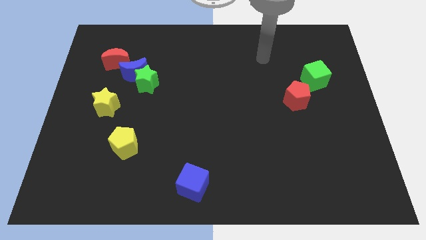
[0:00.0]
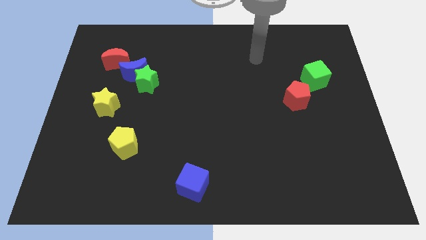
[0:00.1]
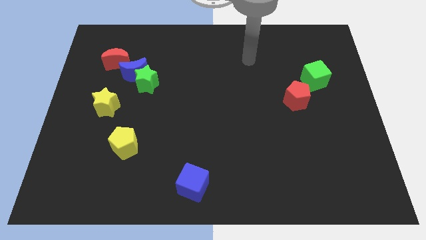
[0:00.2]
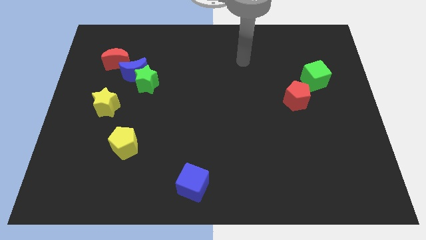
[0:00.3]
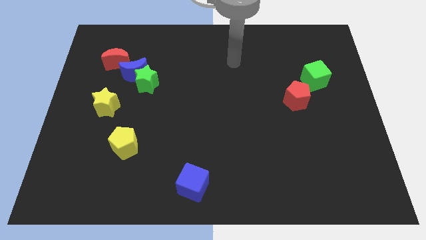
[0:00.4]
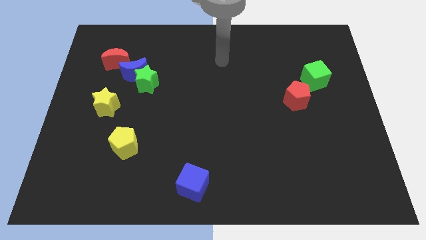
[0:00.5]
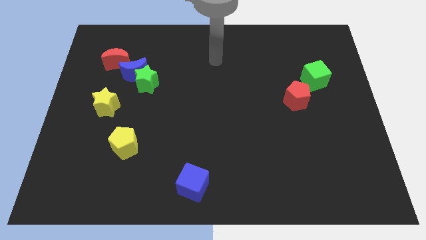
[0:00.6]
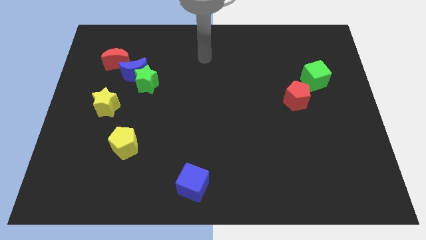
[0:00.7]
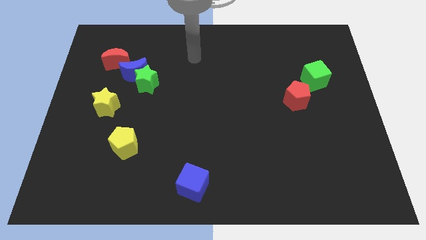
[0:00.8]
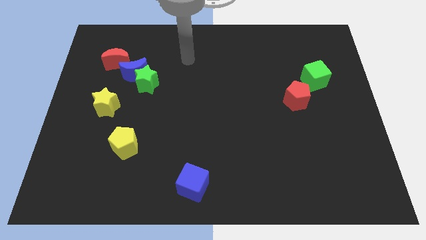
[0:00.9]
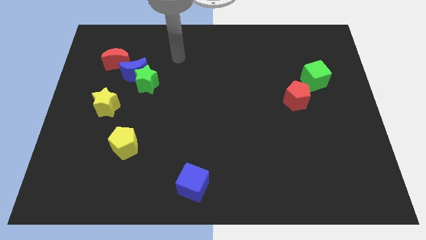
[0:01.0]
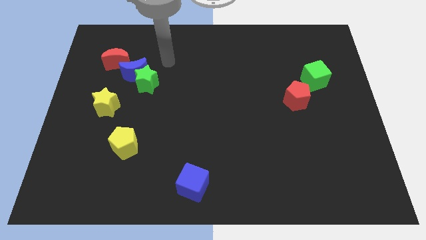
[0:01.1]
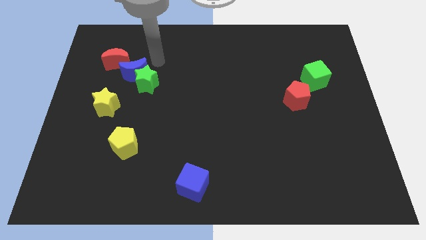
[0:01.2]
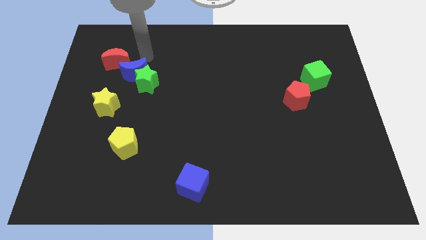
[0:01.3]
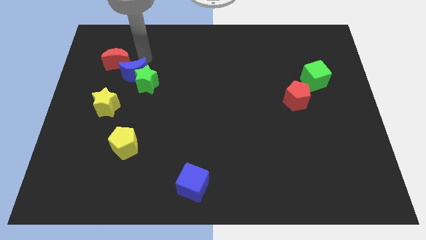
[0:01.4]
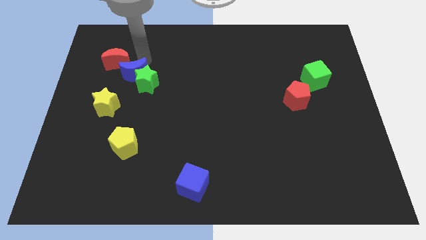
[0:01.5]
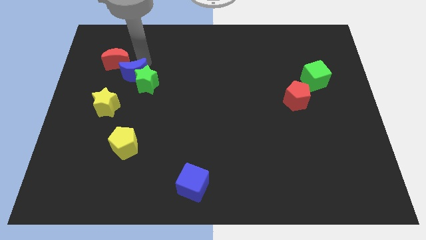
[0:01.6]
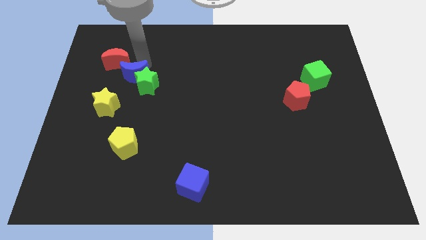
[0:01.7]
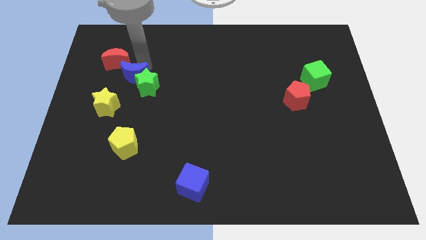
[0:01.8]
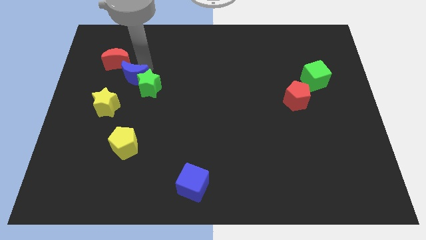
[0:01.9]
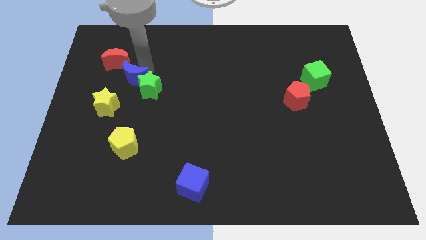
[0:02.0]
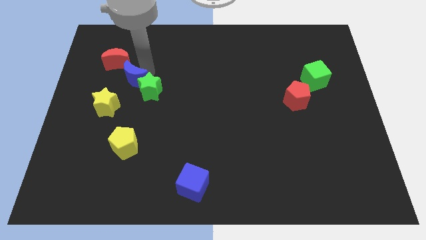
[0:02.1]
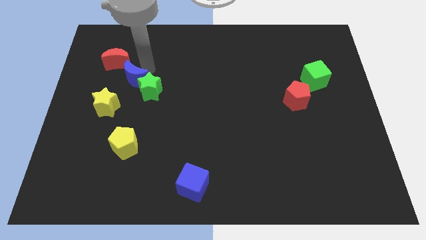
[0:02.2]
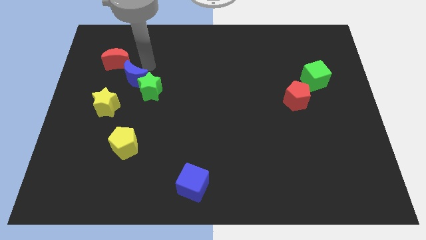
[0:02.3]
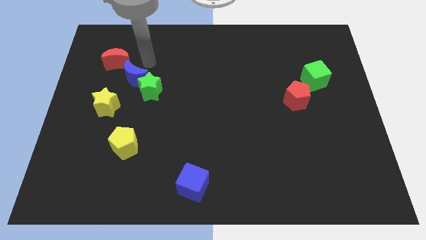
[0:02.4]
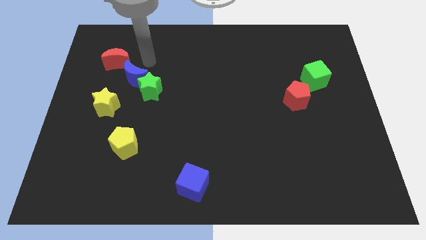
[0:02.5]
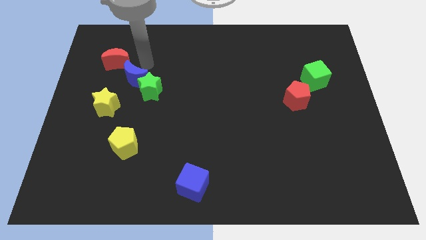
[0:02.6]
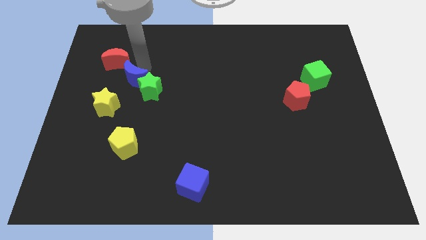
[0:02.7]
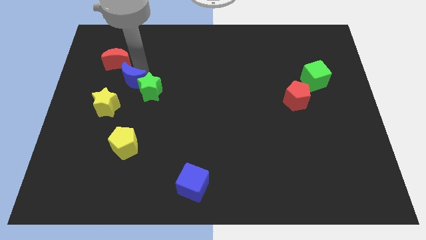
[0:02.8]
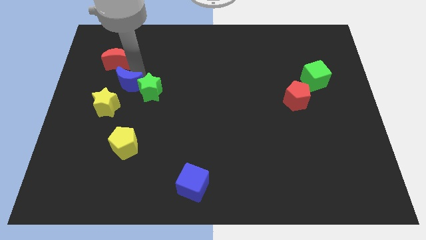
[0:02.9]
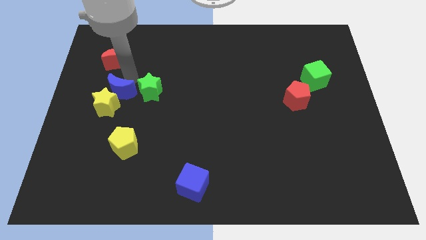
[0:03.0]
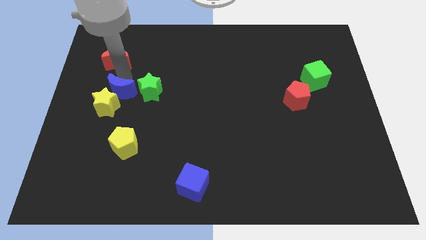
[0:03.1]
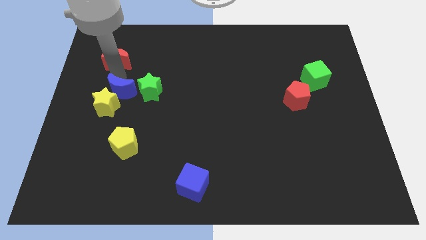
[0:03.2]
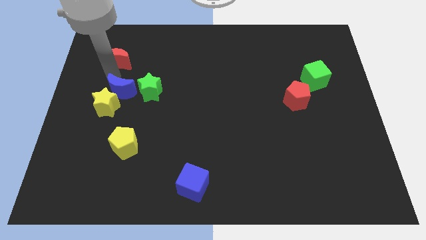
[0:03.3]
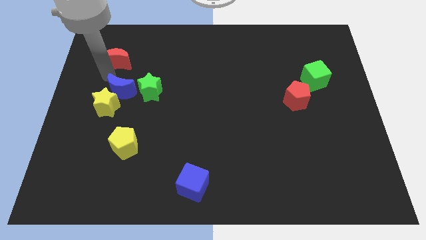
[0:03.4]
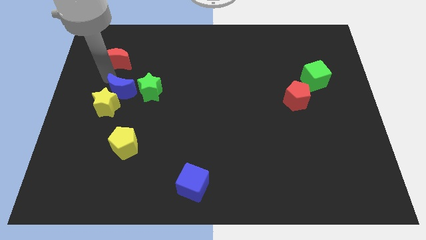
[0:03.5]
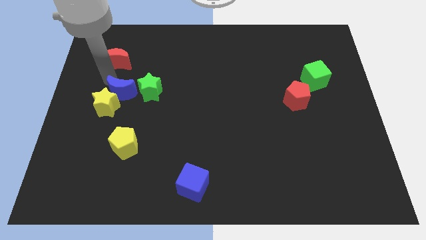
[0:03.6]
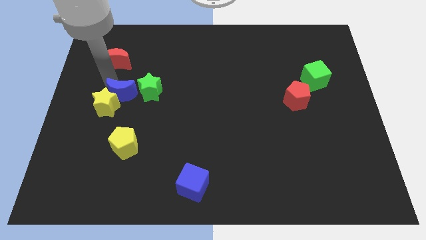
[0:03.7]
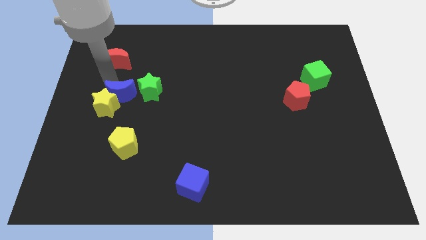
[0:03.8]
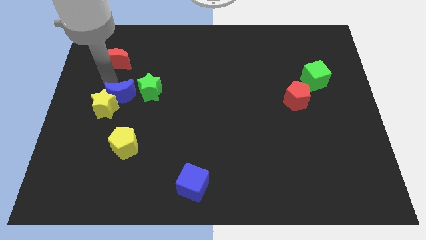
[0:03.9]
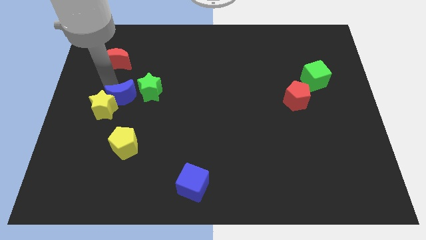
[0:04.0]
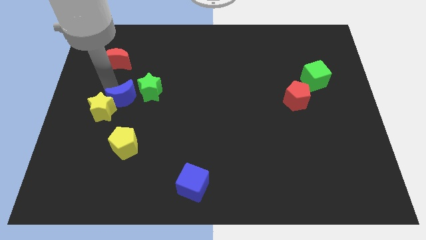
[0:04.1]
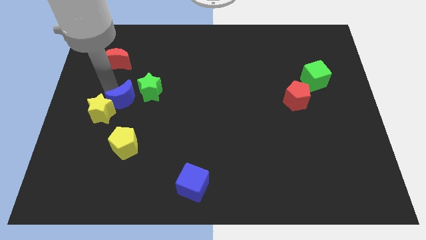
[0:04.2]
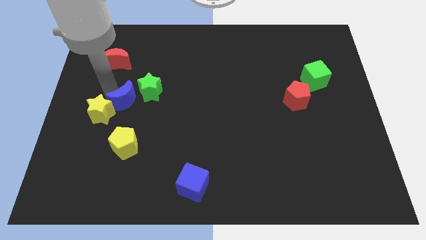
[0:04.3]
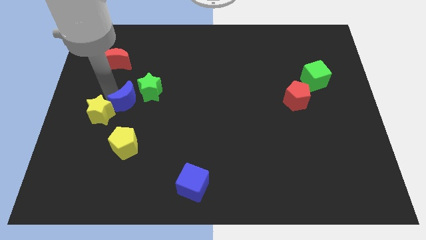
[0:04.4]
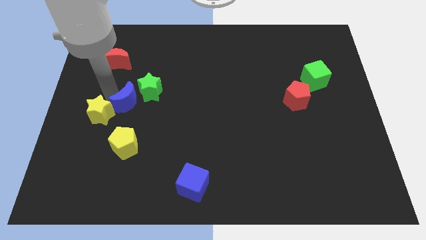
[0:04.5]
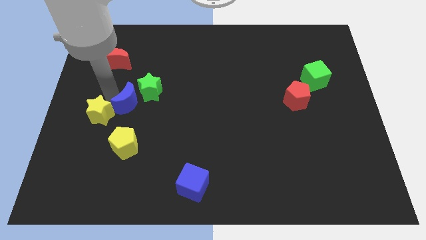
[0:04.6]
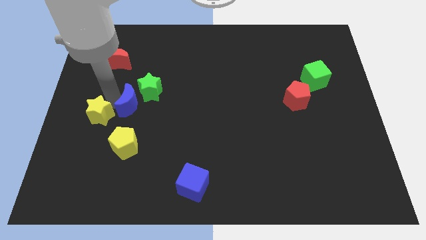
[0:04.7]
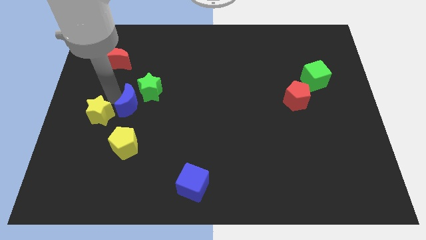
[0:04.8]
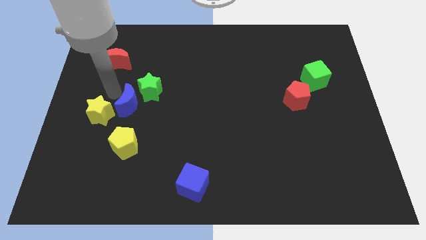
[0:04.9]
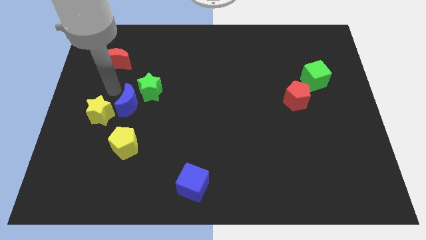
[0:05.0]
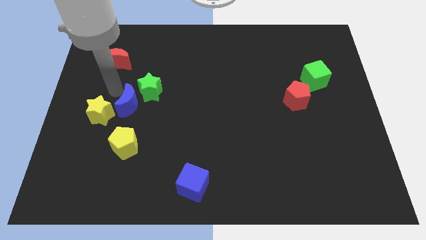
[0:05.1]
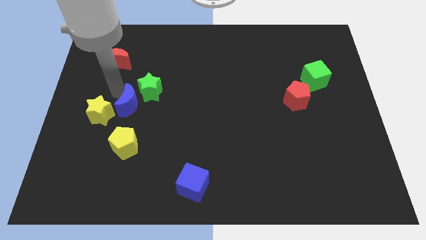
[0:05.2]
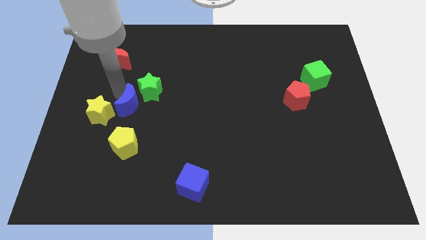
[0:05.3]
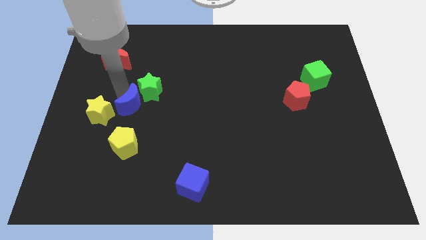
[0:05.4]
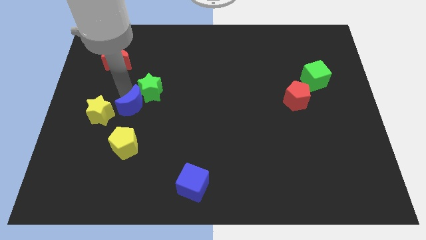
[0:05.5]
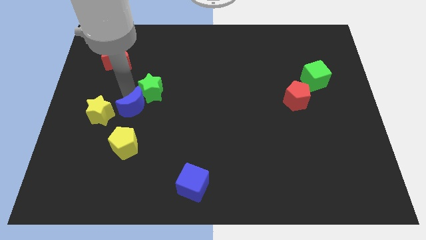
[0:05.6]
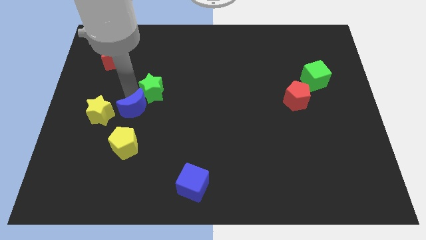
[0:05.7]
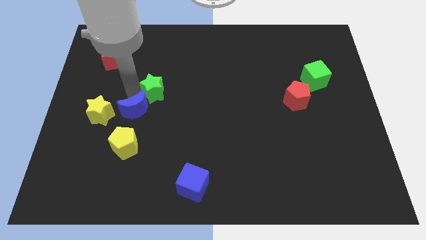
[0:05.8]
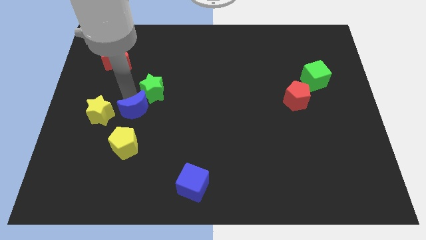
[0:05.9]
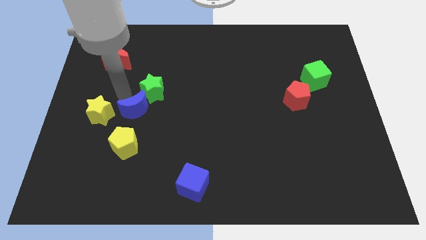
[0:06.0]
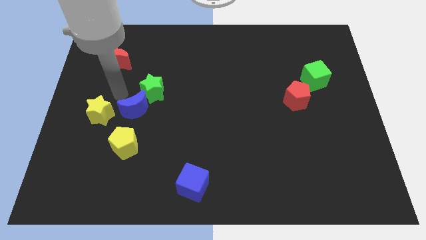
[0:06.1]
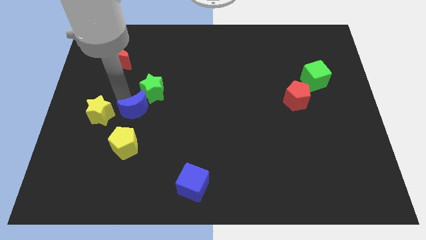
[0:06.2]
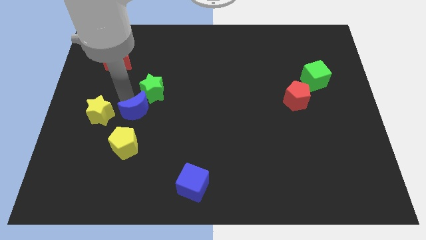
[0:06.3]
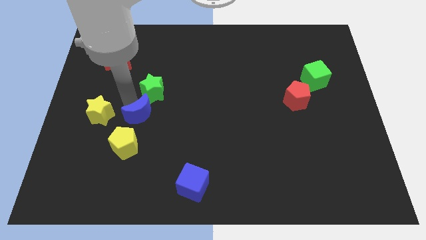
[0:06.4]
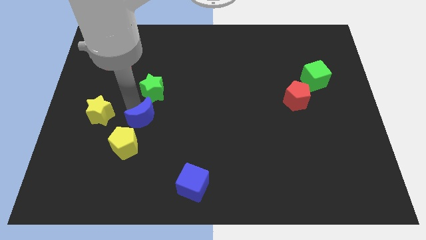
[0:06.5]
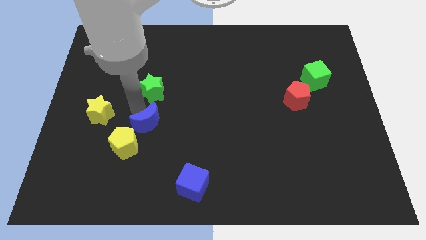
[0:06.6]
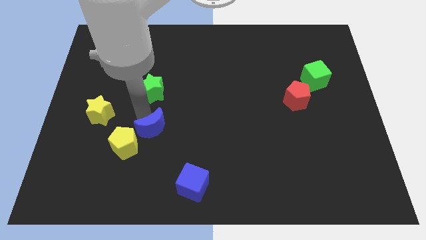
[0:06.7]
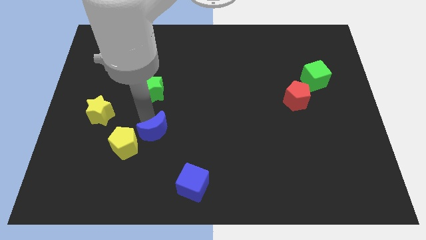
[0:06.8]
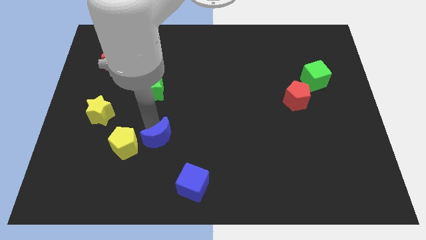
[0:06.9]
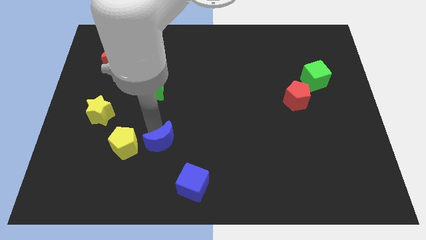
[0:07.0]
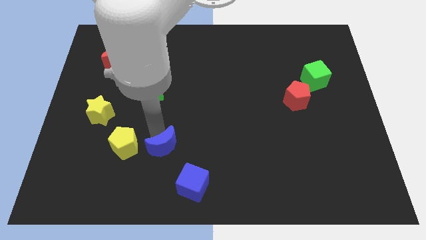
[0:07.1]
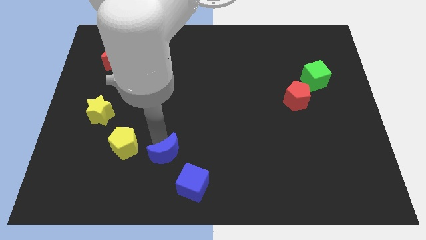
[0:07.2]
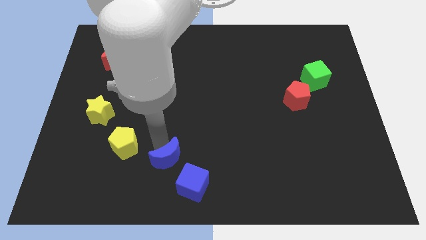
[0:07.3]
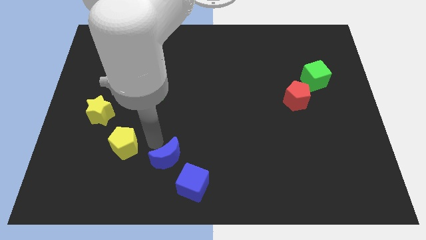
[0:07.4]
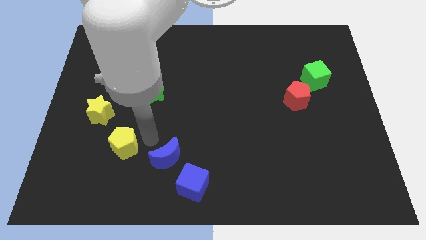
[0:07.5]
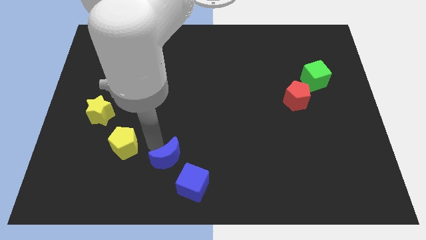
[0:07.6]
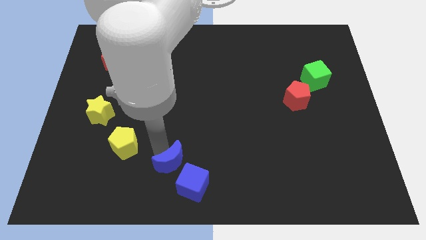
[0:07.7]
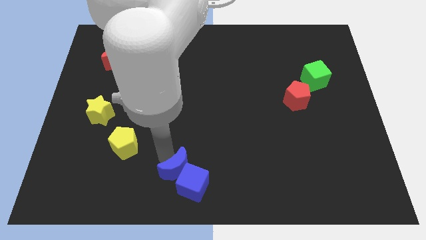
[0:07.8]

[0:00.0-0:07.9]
move the blue moon next to the blue cube
